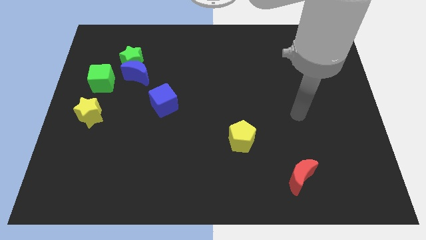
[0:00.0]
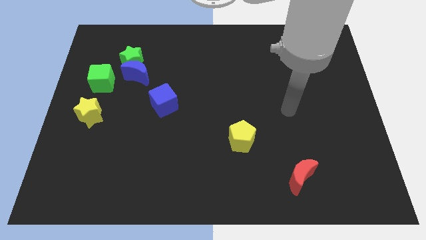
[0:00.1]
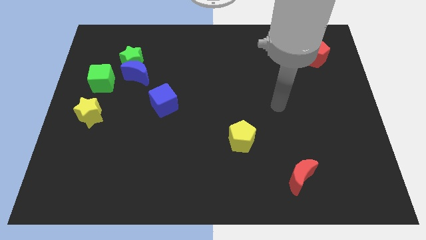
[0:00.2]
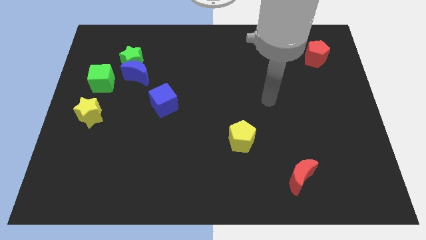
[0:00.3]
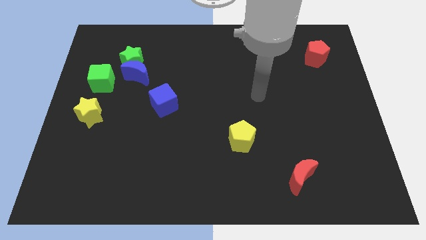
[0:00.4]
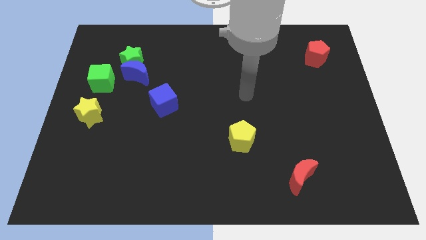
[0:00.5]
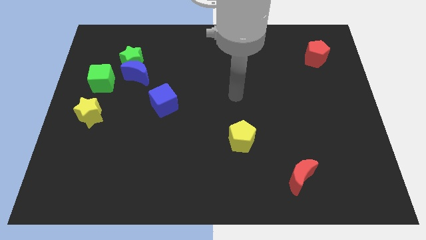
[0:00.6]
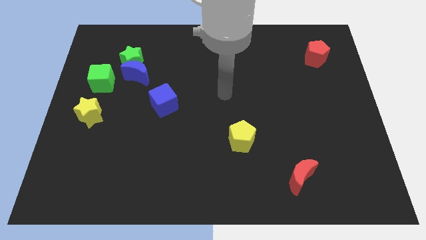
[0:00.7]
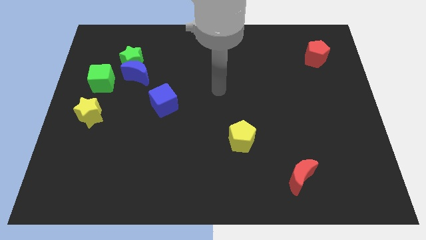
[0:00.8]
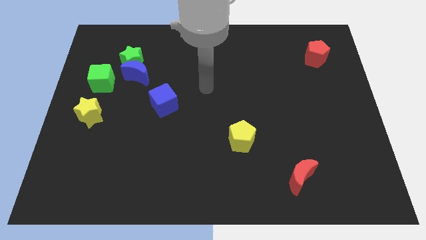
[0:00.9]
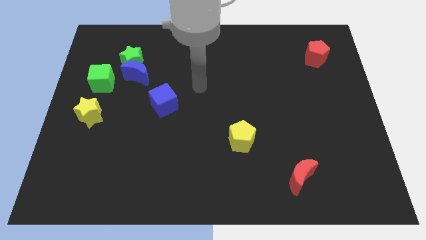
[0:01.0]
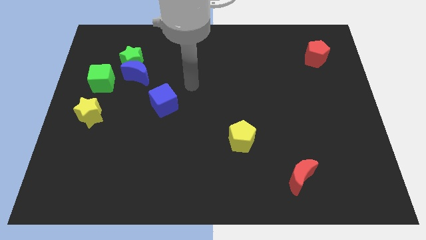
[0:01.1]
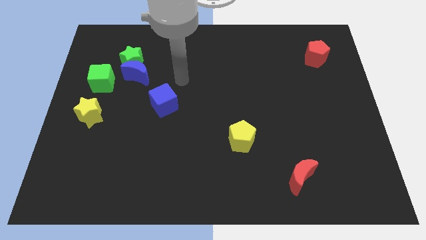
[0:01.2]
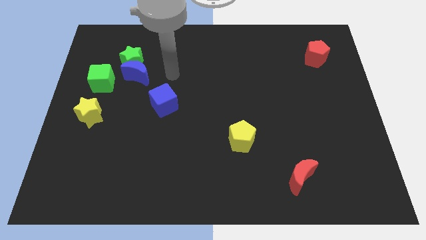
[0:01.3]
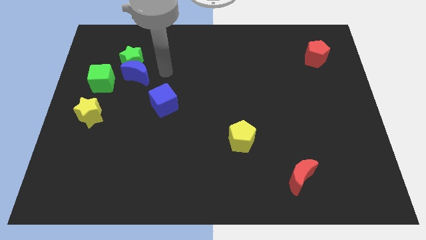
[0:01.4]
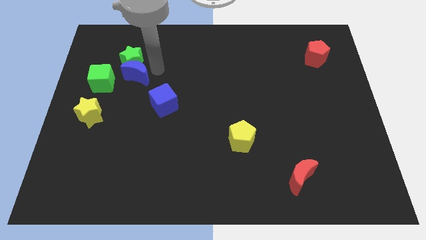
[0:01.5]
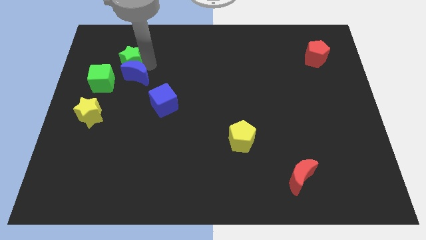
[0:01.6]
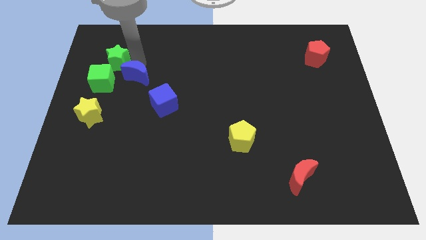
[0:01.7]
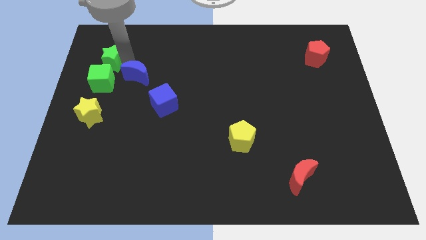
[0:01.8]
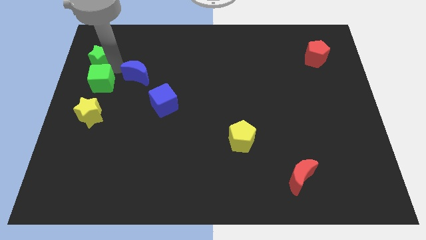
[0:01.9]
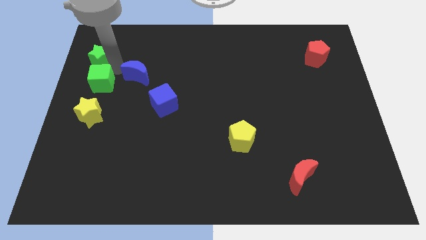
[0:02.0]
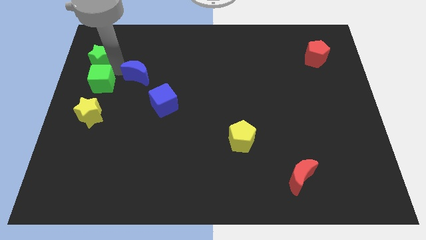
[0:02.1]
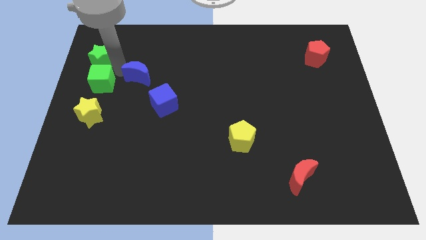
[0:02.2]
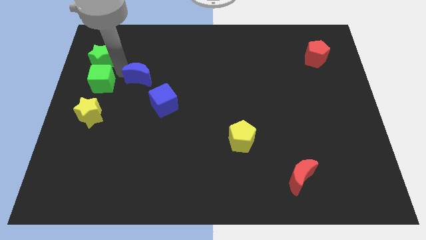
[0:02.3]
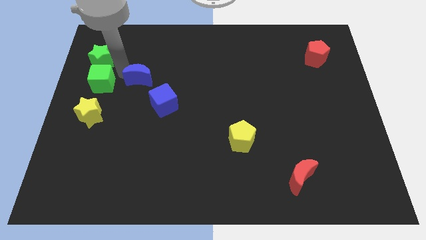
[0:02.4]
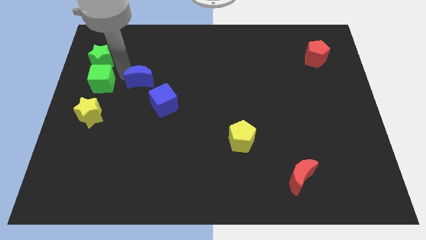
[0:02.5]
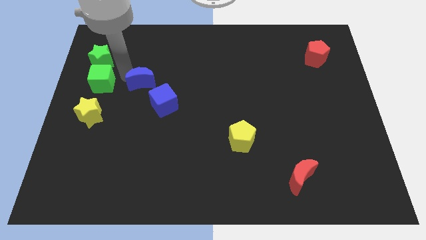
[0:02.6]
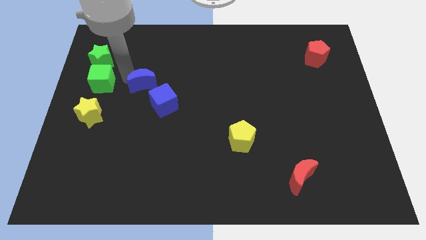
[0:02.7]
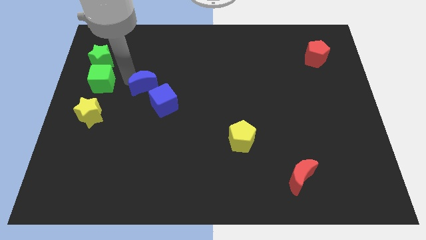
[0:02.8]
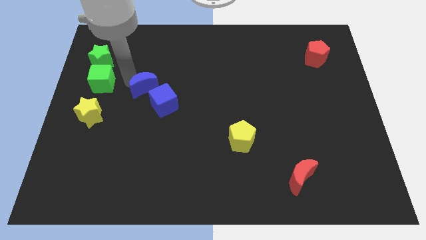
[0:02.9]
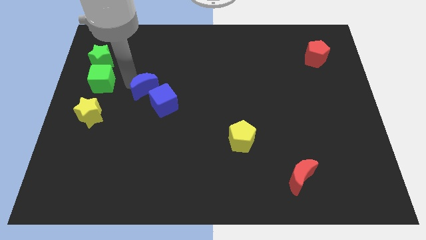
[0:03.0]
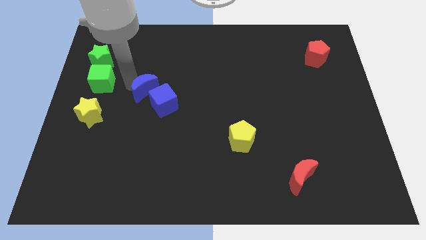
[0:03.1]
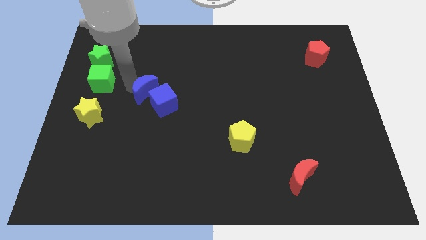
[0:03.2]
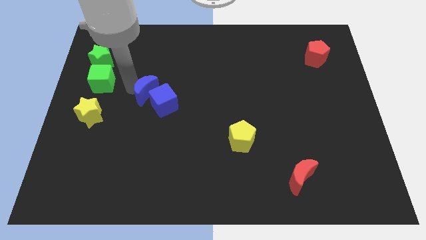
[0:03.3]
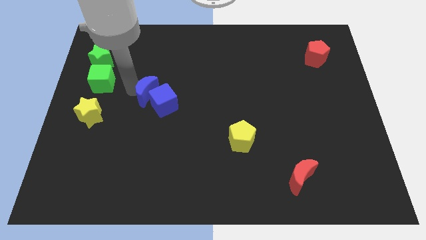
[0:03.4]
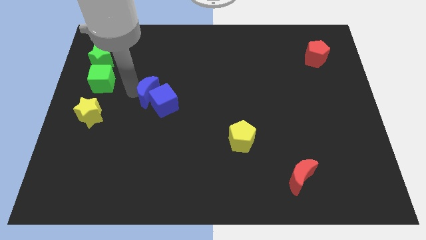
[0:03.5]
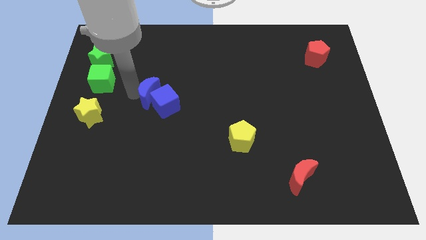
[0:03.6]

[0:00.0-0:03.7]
slide the blue moon down and to the right diagonally slightly

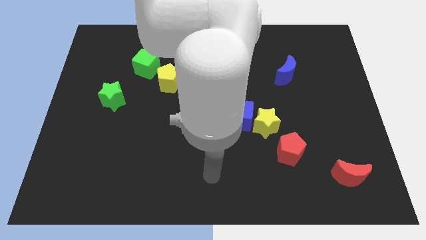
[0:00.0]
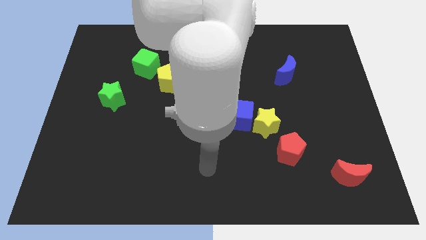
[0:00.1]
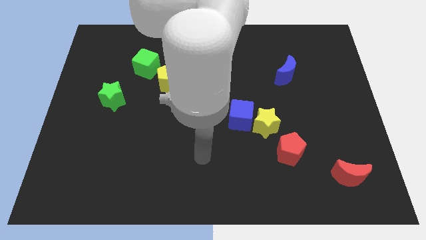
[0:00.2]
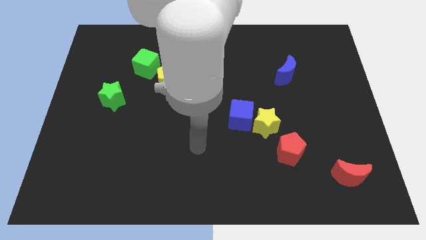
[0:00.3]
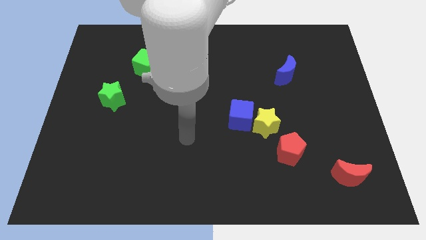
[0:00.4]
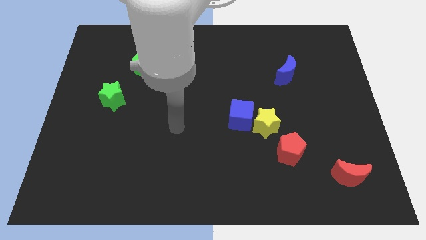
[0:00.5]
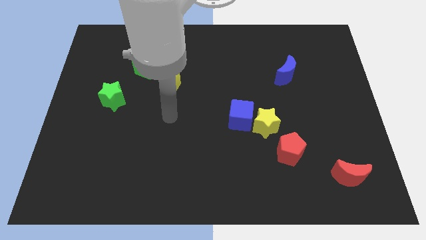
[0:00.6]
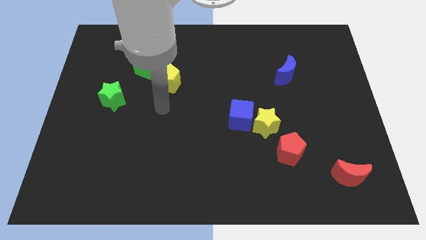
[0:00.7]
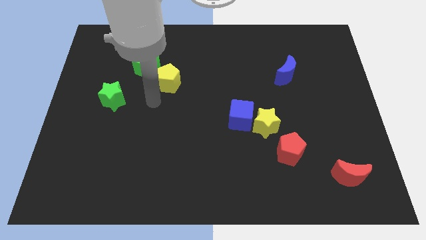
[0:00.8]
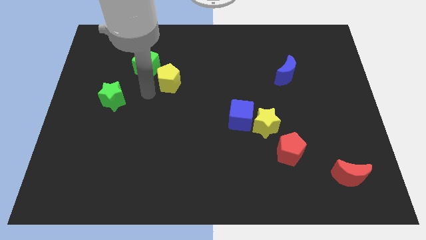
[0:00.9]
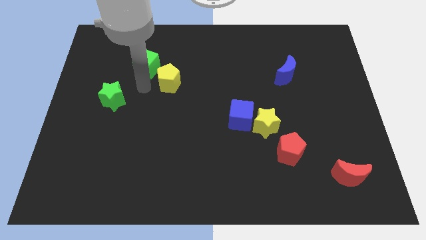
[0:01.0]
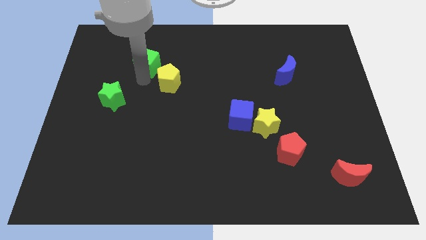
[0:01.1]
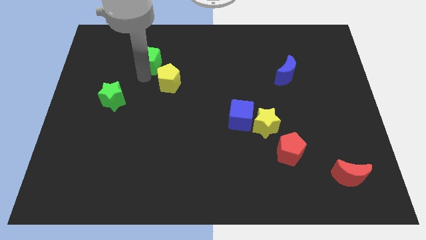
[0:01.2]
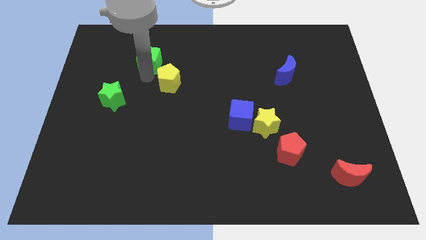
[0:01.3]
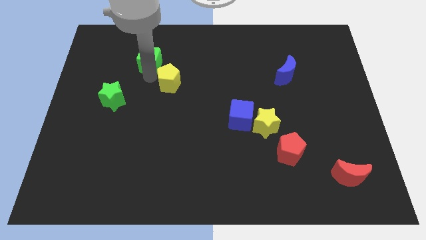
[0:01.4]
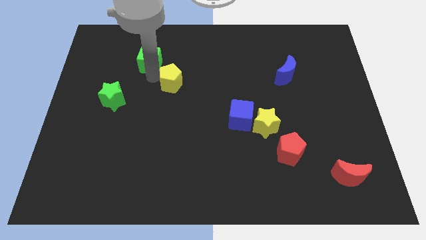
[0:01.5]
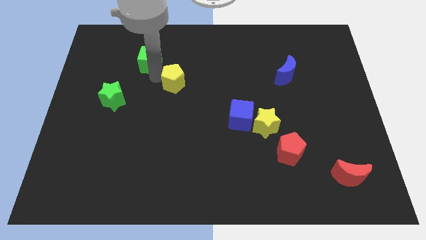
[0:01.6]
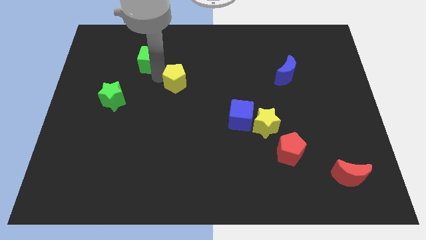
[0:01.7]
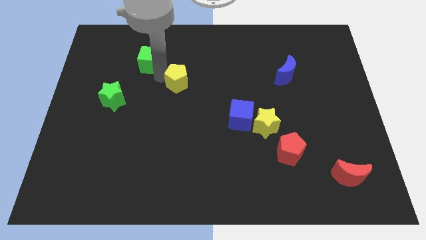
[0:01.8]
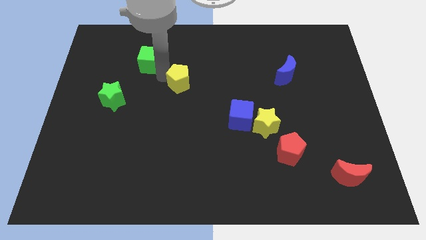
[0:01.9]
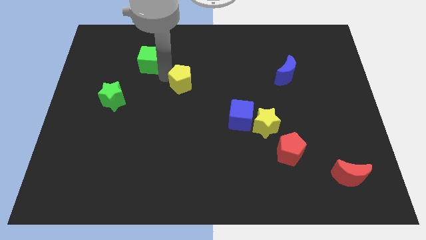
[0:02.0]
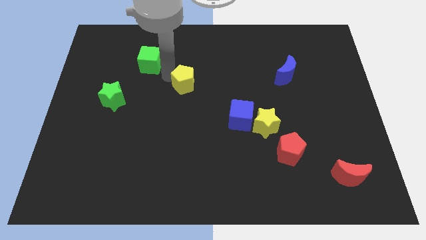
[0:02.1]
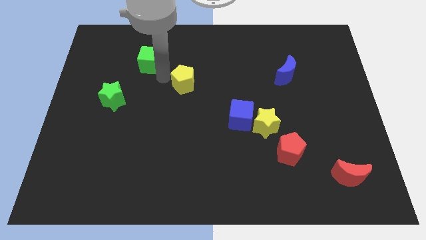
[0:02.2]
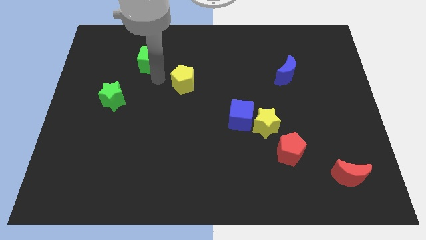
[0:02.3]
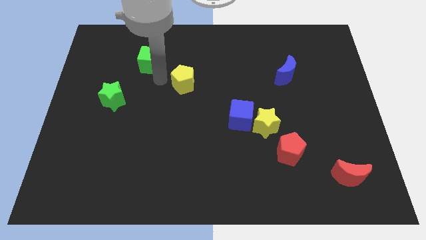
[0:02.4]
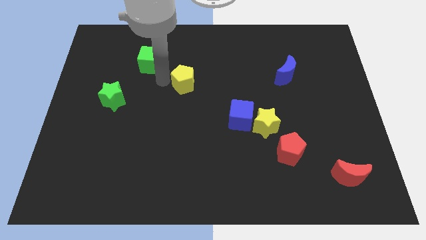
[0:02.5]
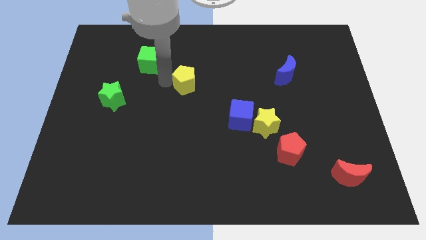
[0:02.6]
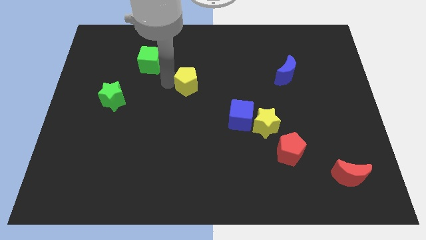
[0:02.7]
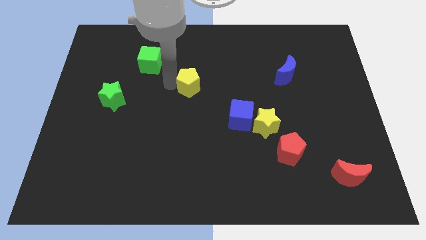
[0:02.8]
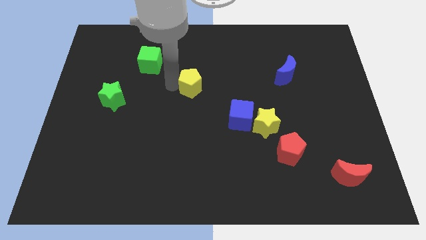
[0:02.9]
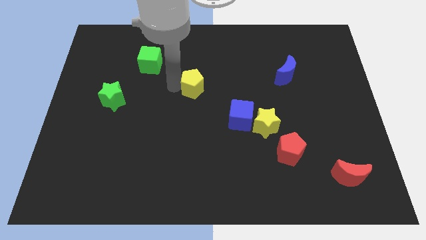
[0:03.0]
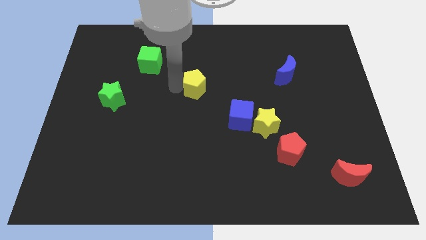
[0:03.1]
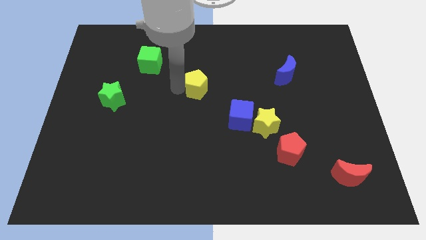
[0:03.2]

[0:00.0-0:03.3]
slightly push the yellow pentagon right

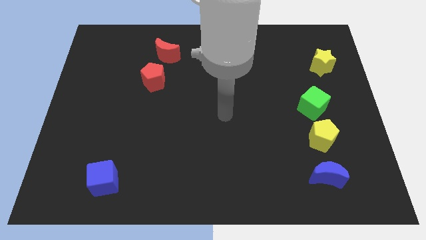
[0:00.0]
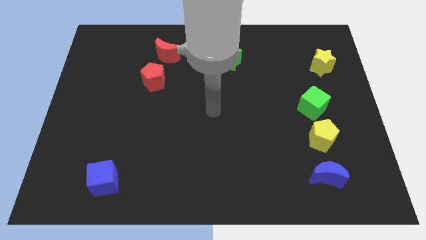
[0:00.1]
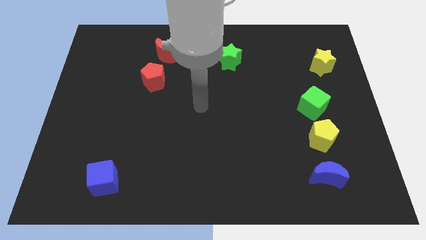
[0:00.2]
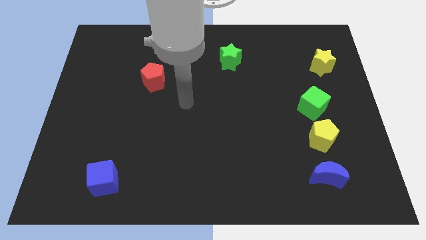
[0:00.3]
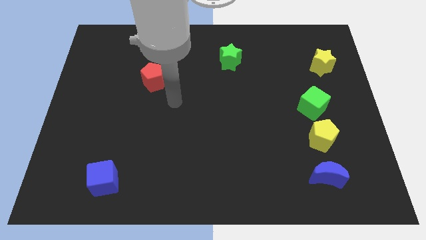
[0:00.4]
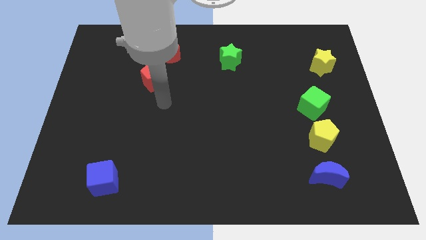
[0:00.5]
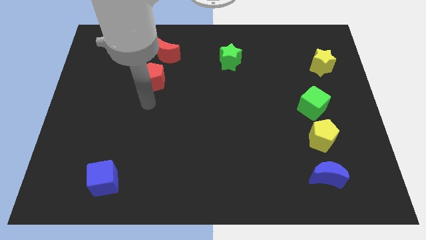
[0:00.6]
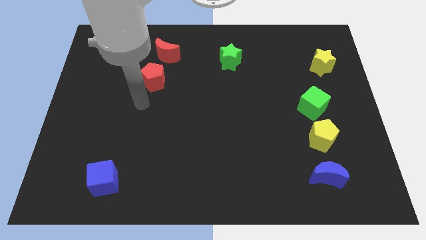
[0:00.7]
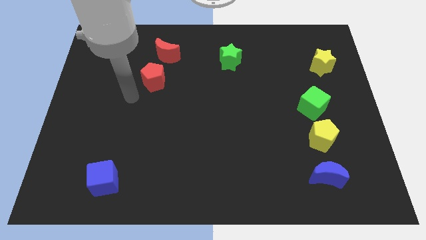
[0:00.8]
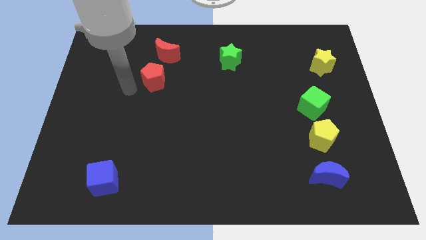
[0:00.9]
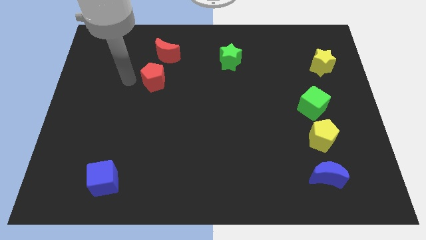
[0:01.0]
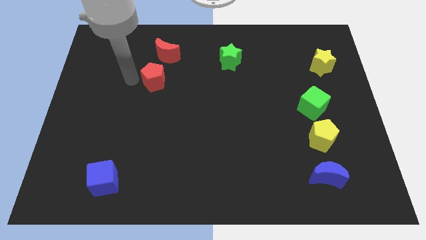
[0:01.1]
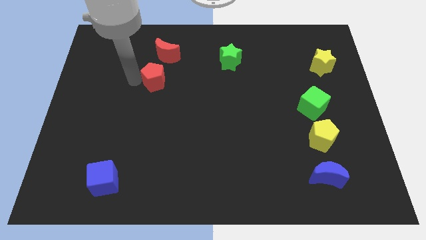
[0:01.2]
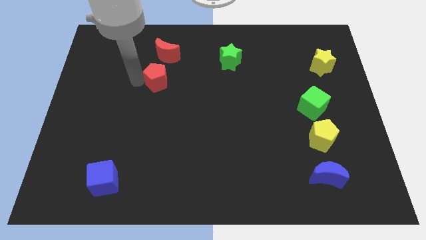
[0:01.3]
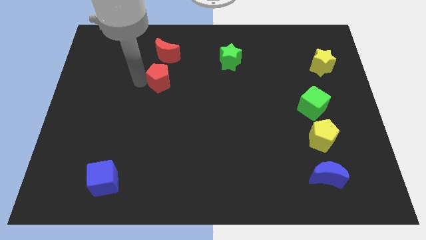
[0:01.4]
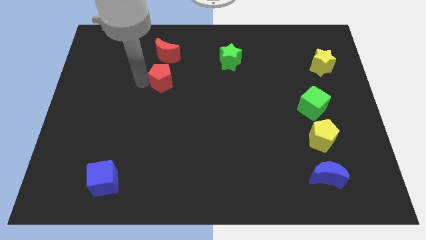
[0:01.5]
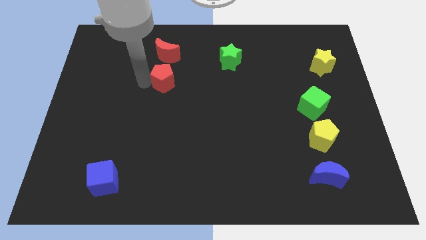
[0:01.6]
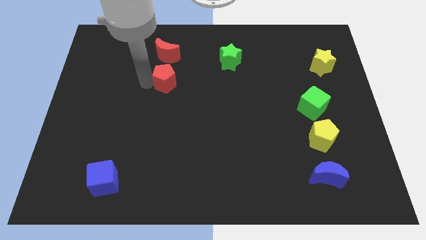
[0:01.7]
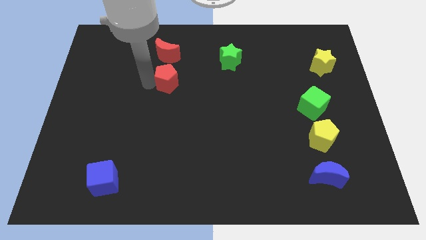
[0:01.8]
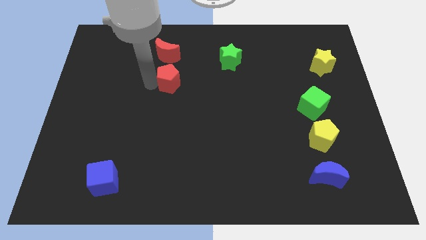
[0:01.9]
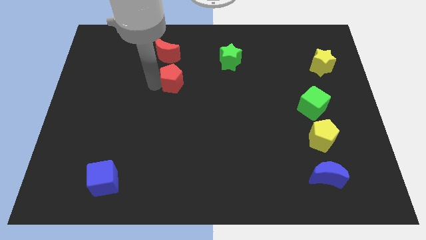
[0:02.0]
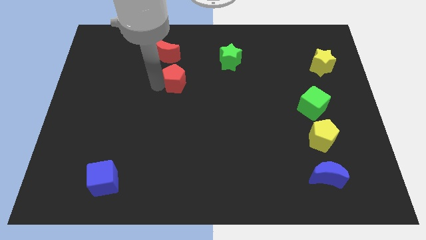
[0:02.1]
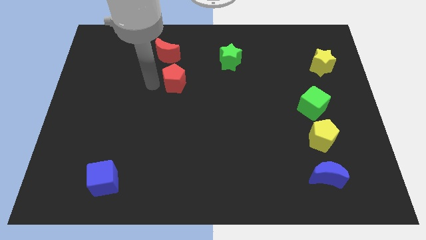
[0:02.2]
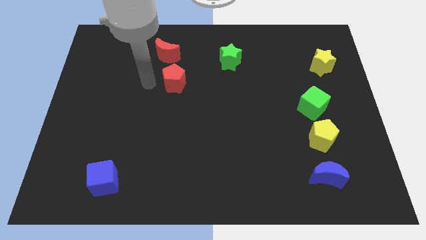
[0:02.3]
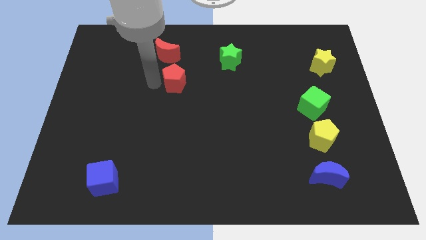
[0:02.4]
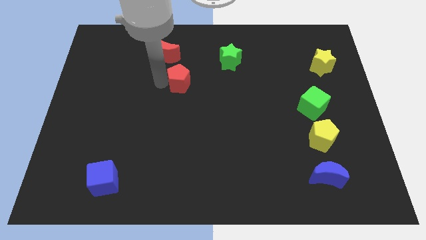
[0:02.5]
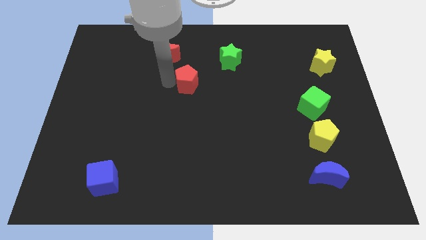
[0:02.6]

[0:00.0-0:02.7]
move the red pentagon to the right a little bit
